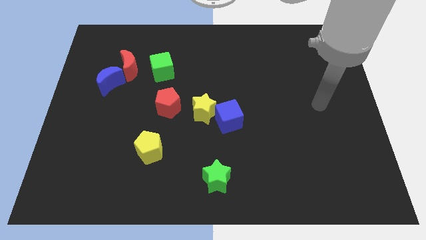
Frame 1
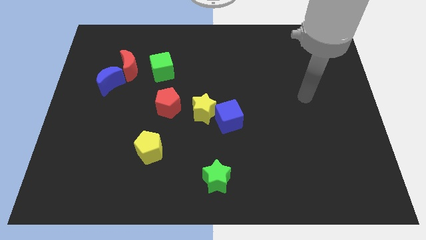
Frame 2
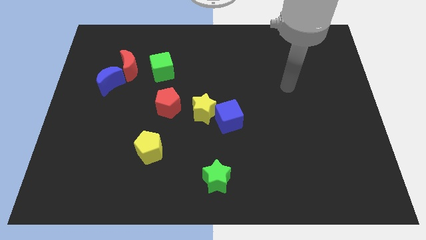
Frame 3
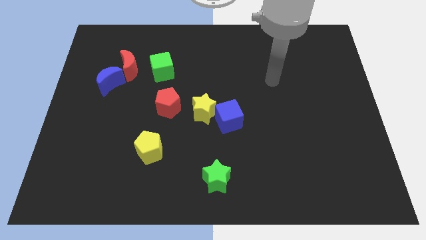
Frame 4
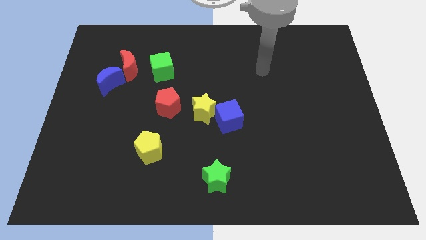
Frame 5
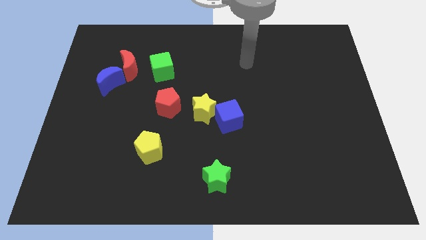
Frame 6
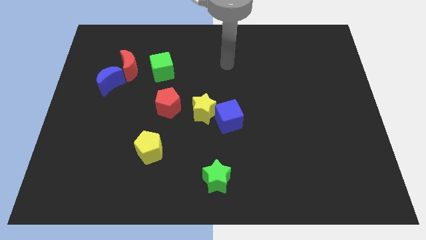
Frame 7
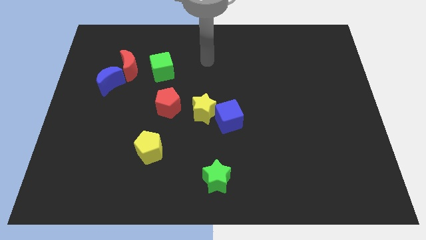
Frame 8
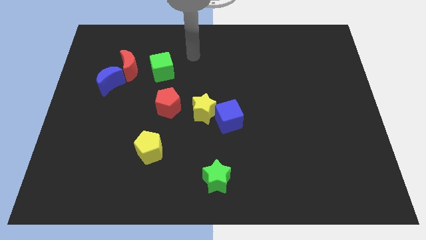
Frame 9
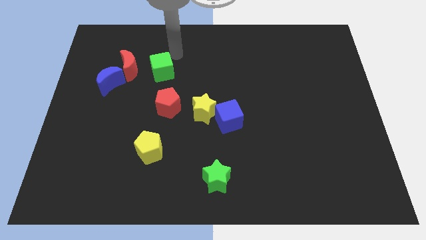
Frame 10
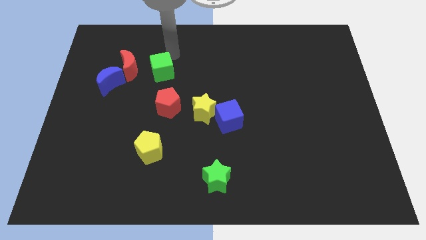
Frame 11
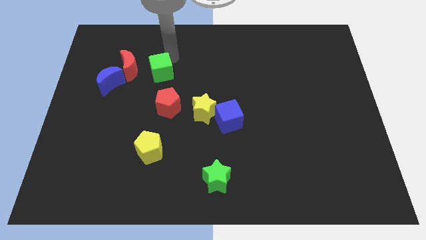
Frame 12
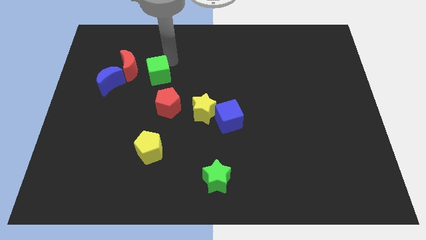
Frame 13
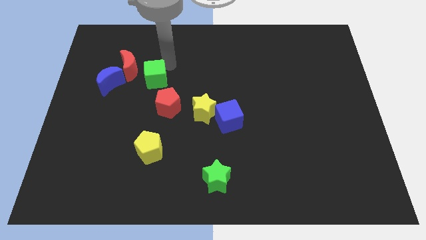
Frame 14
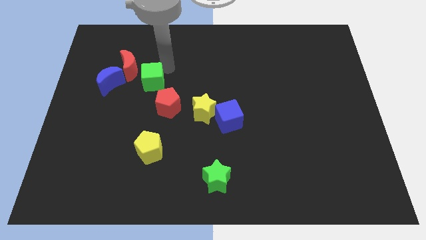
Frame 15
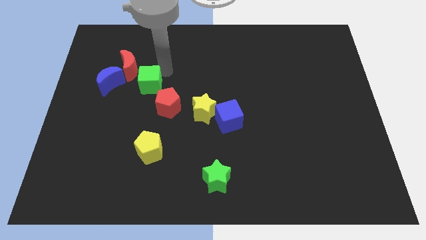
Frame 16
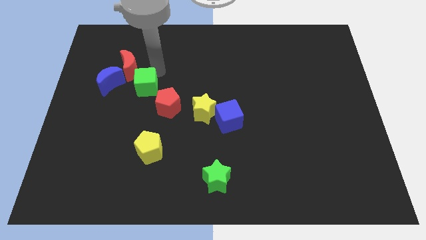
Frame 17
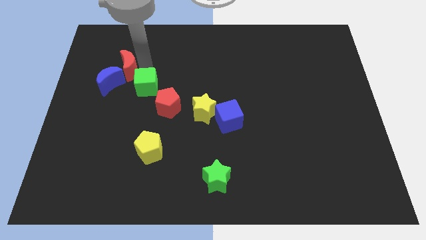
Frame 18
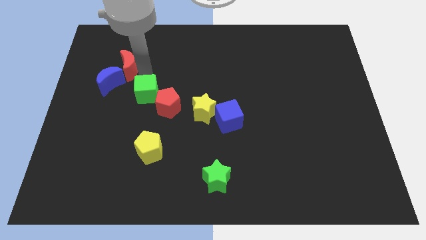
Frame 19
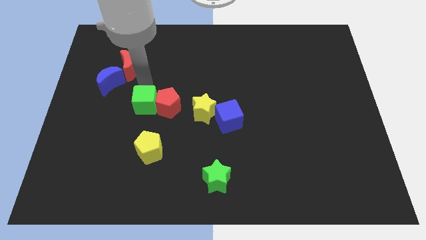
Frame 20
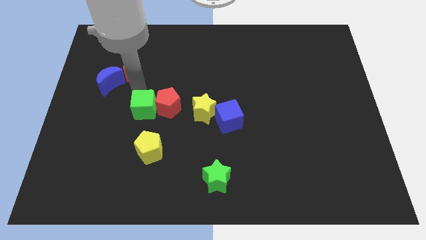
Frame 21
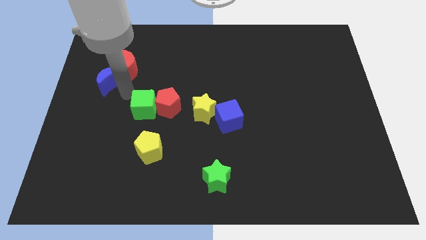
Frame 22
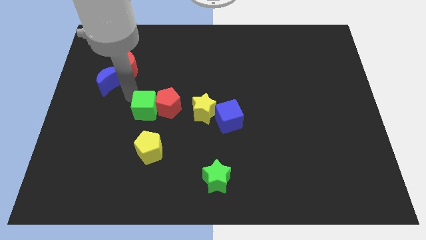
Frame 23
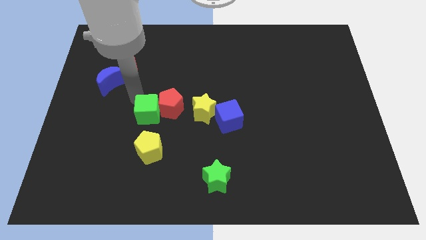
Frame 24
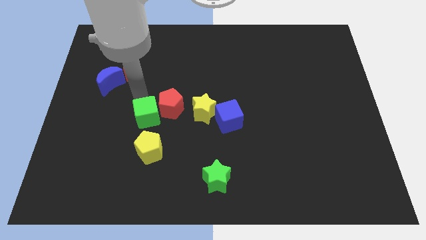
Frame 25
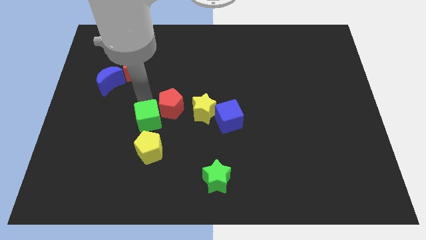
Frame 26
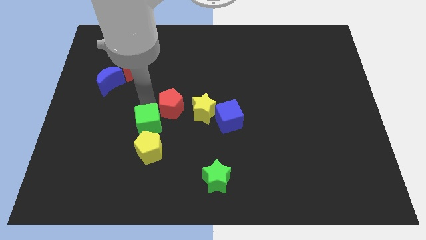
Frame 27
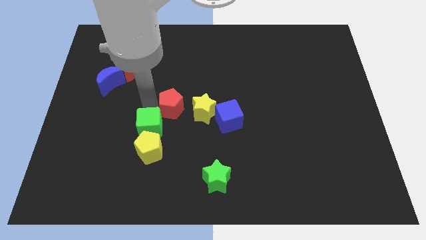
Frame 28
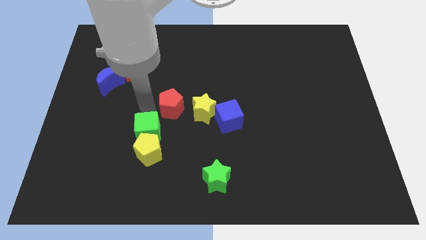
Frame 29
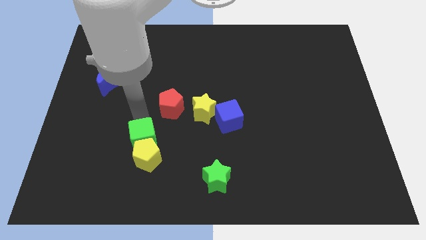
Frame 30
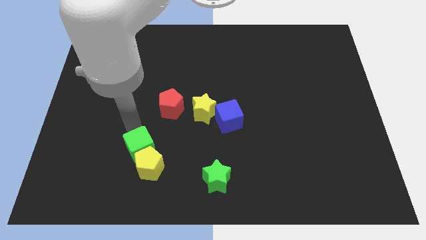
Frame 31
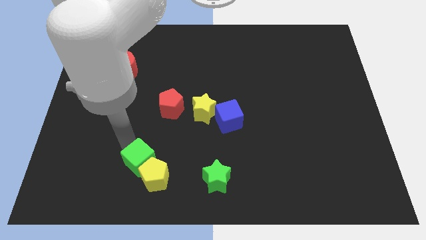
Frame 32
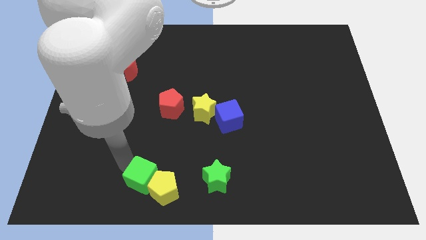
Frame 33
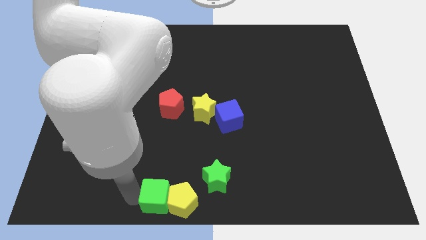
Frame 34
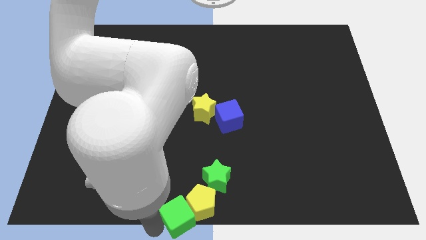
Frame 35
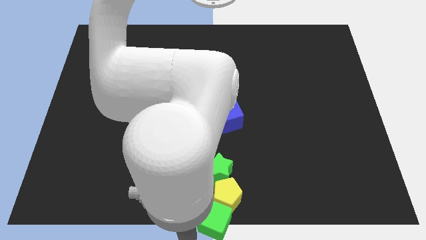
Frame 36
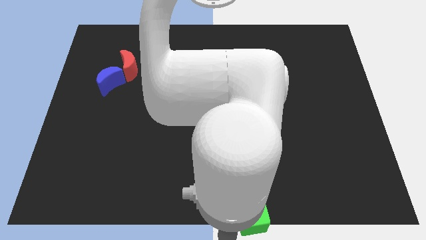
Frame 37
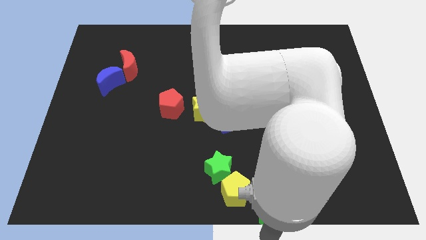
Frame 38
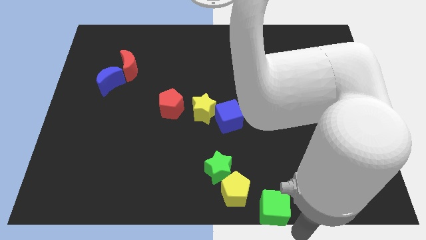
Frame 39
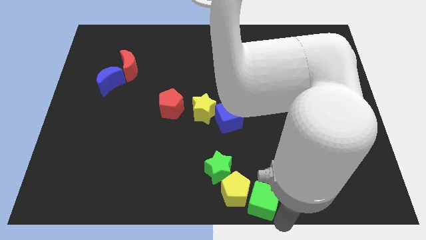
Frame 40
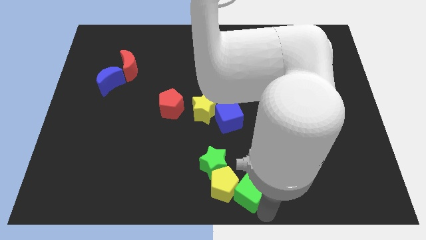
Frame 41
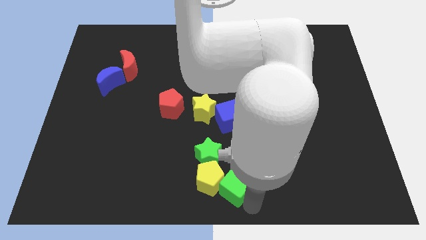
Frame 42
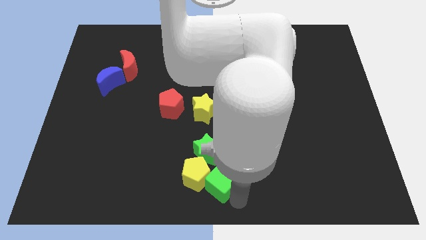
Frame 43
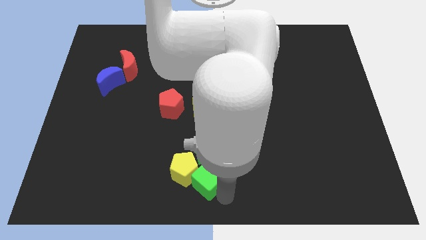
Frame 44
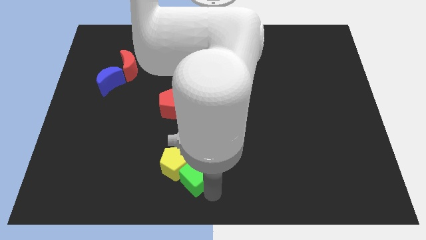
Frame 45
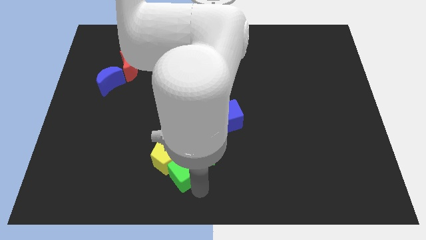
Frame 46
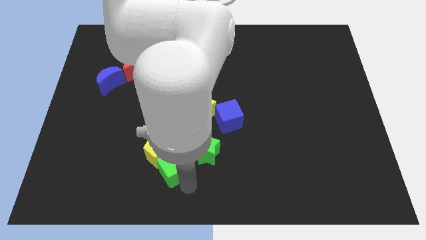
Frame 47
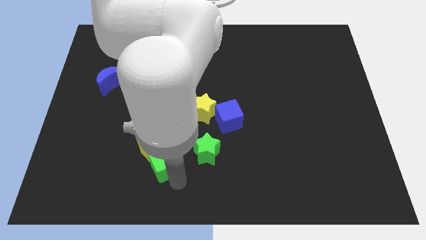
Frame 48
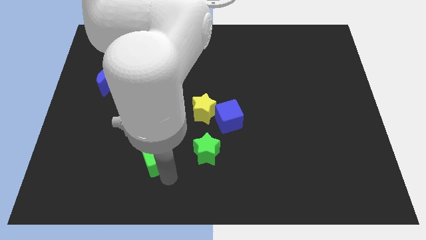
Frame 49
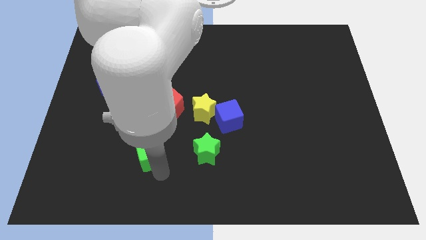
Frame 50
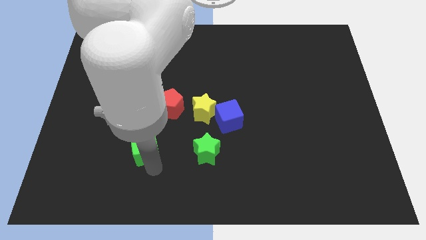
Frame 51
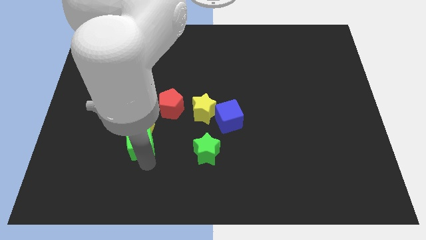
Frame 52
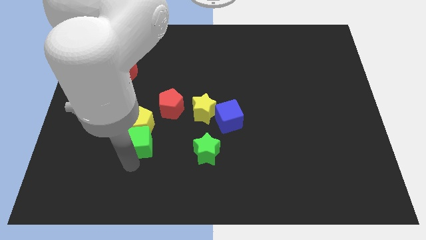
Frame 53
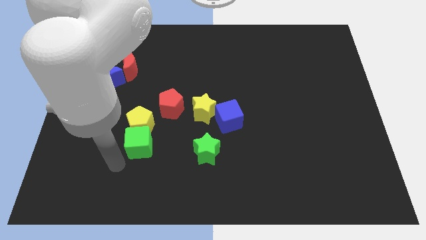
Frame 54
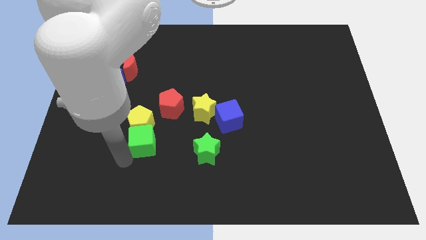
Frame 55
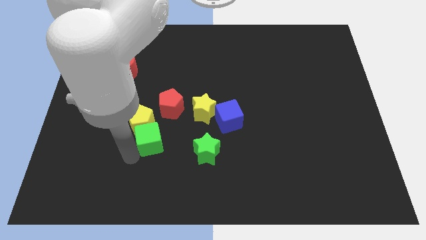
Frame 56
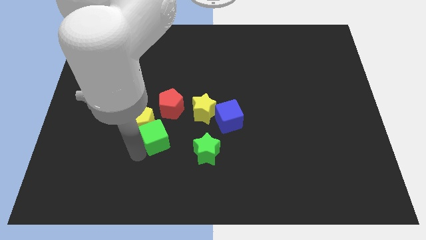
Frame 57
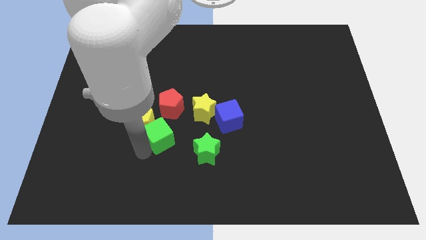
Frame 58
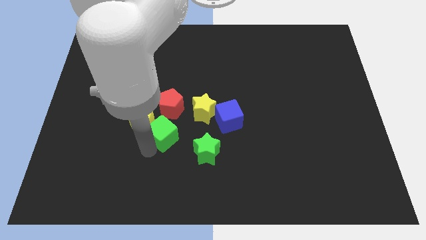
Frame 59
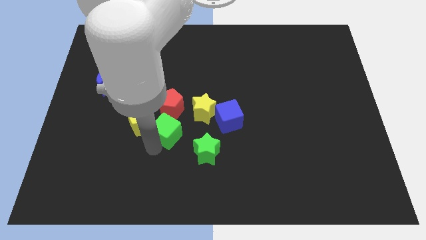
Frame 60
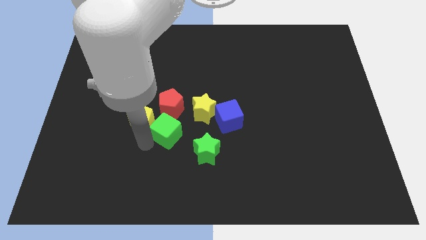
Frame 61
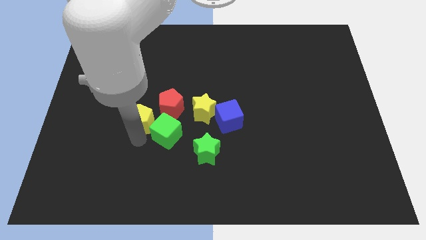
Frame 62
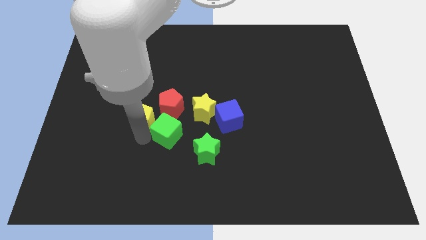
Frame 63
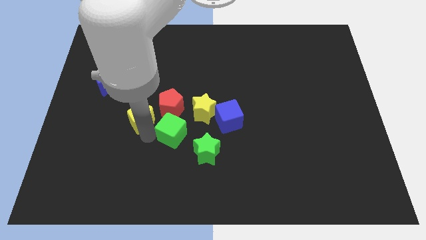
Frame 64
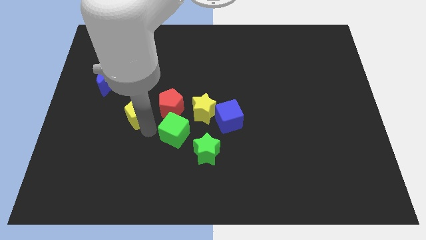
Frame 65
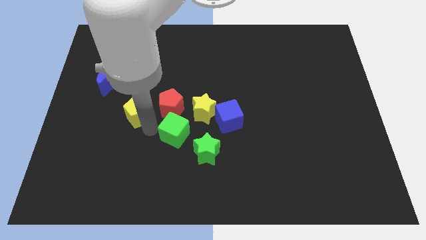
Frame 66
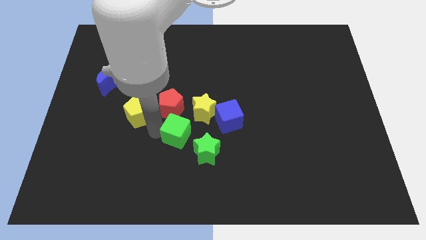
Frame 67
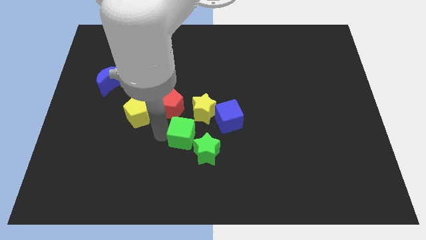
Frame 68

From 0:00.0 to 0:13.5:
slide the green cube to the bottom left side of the blue cube
